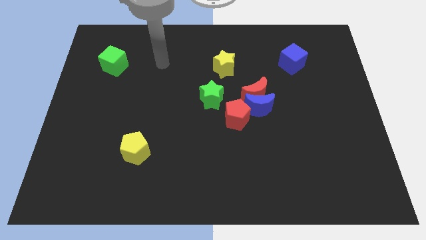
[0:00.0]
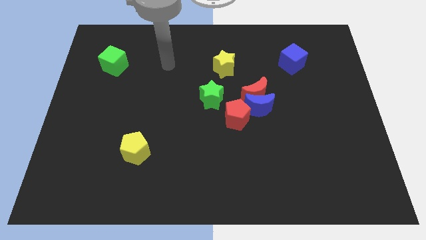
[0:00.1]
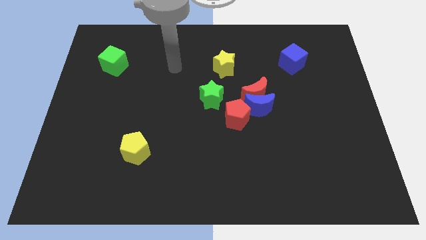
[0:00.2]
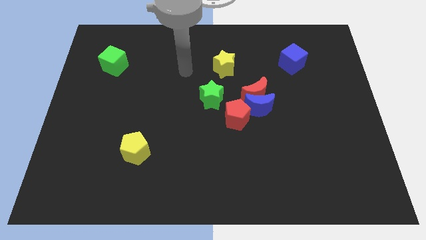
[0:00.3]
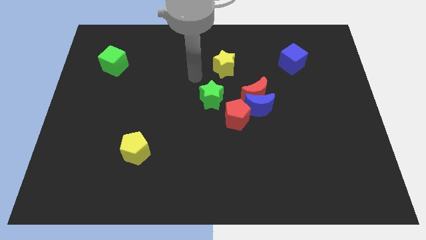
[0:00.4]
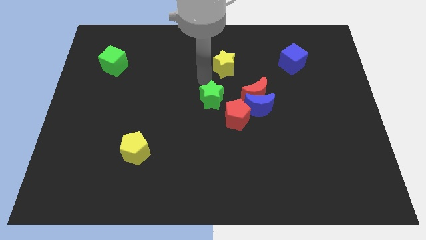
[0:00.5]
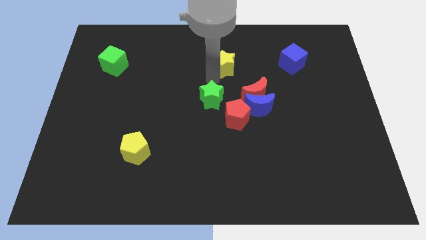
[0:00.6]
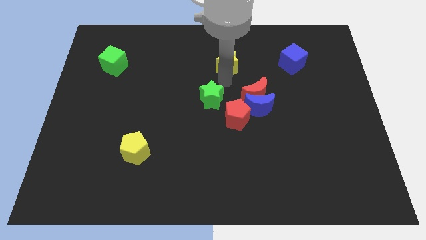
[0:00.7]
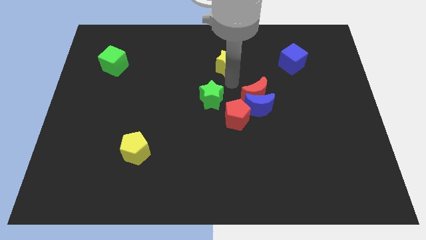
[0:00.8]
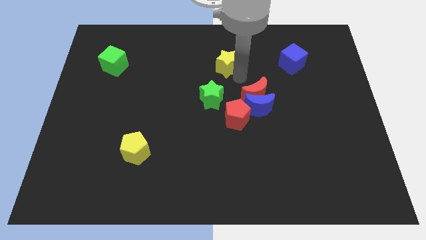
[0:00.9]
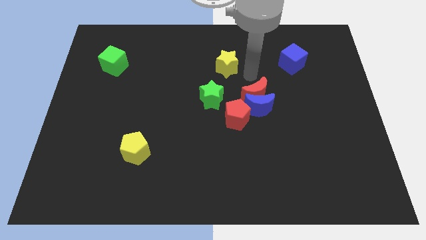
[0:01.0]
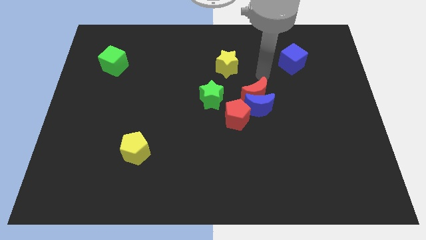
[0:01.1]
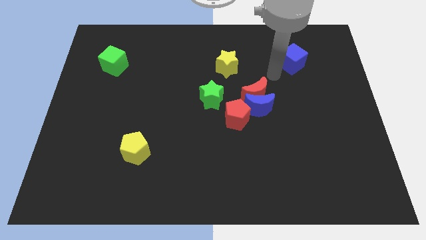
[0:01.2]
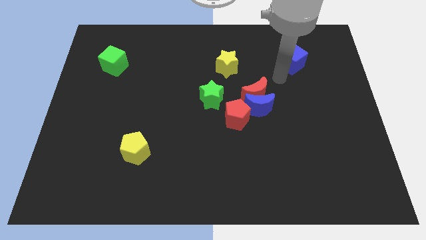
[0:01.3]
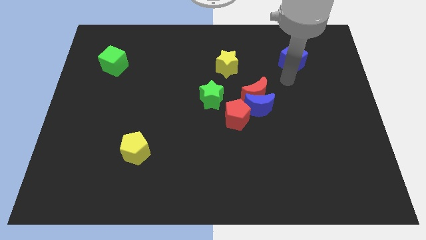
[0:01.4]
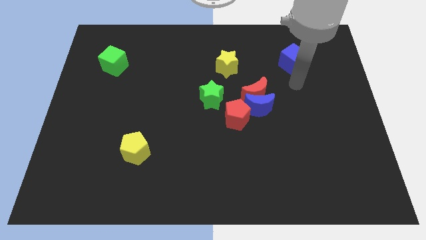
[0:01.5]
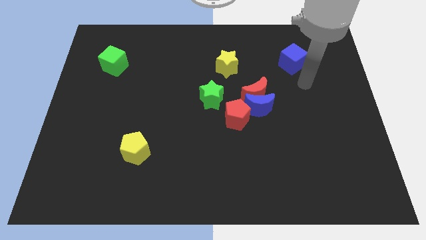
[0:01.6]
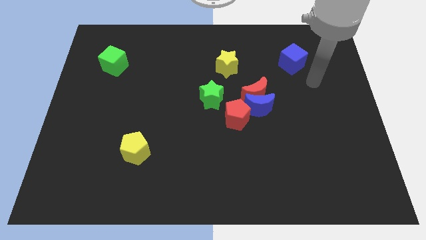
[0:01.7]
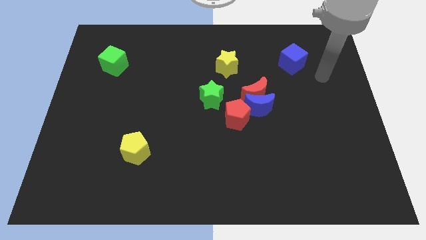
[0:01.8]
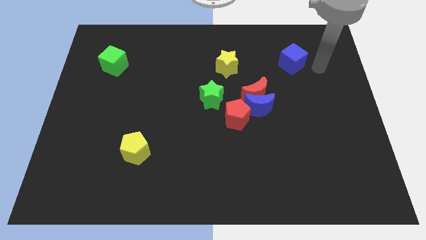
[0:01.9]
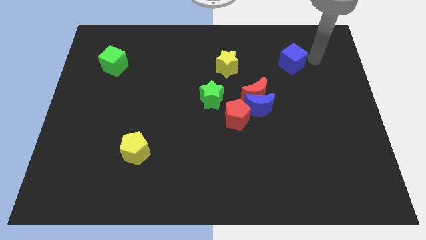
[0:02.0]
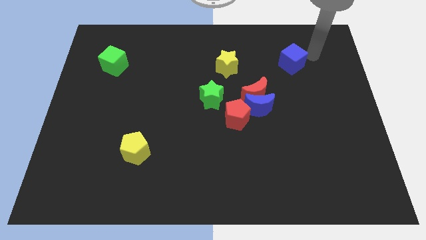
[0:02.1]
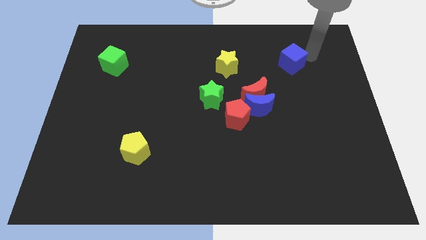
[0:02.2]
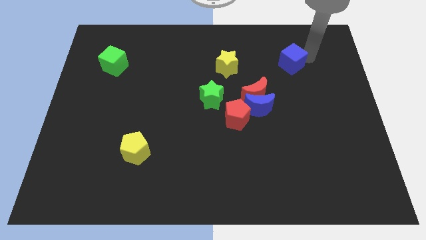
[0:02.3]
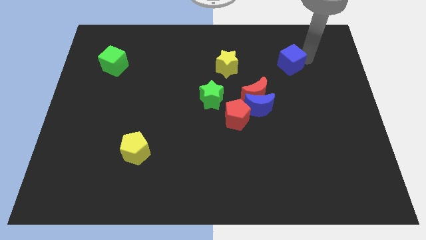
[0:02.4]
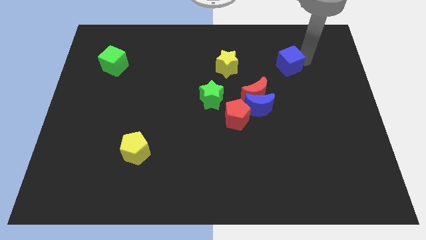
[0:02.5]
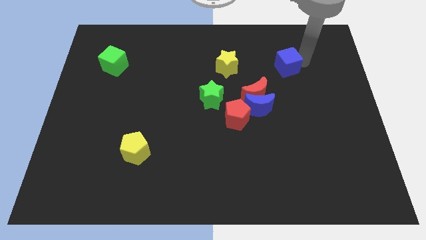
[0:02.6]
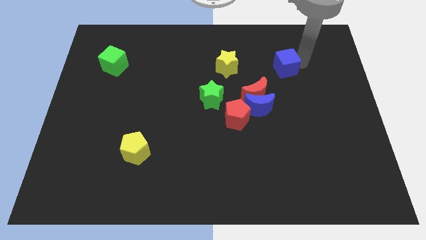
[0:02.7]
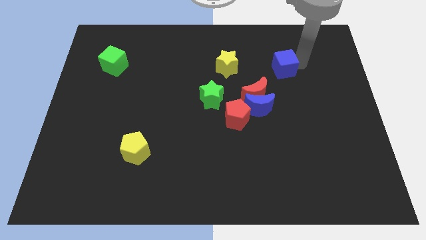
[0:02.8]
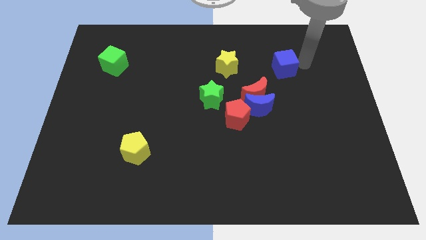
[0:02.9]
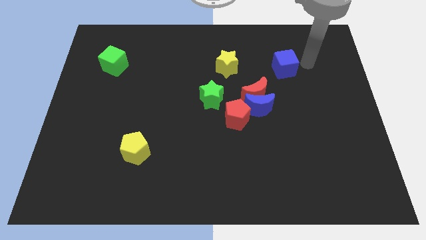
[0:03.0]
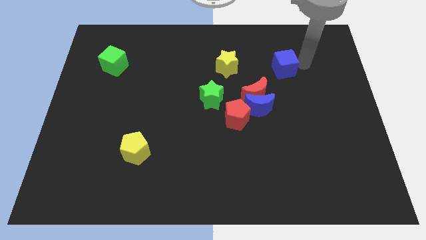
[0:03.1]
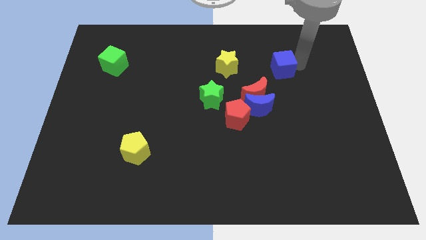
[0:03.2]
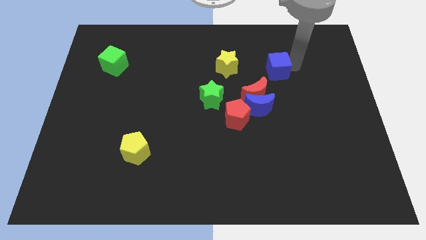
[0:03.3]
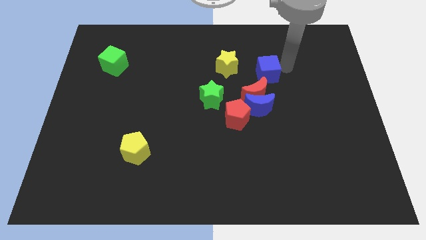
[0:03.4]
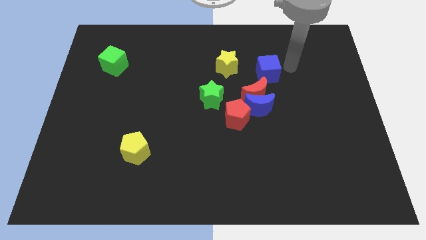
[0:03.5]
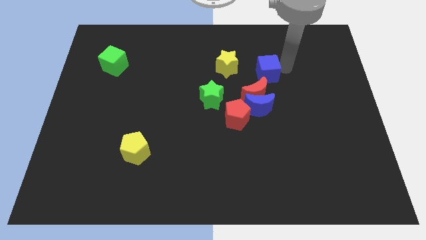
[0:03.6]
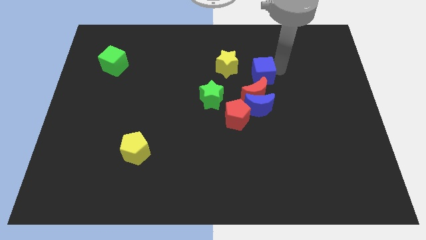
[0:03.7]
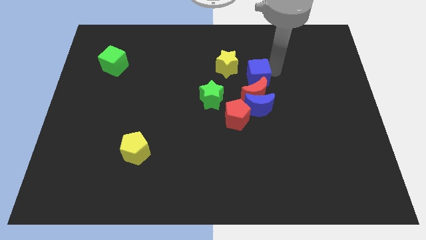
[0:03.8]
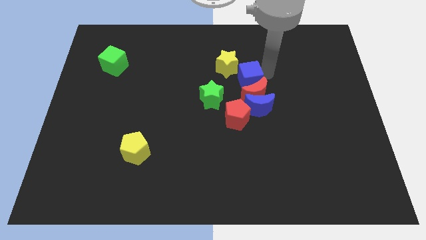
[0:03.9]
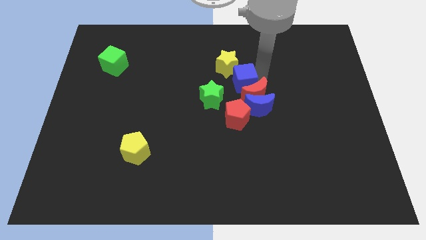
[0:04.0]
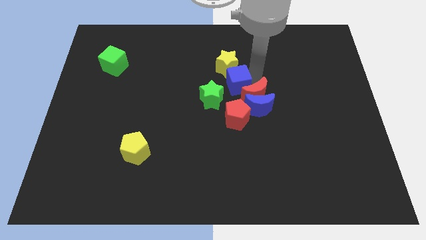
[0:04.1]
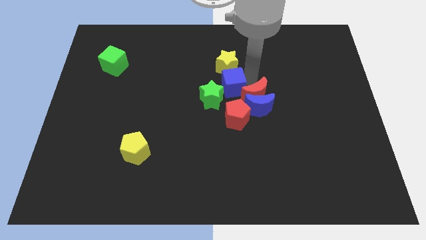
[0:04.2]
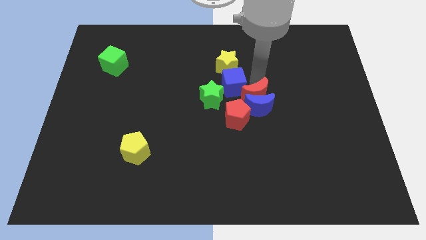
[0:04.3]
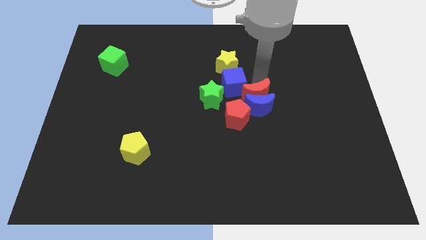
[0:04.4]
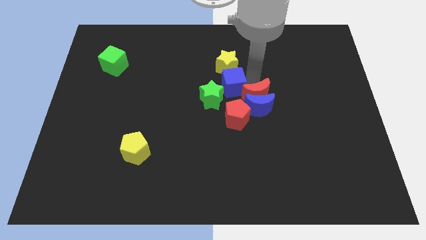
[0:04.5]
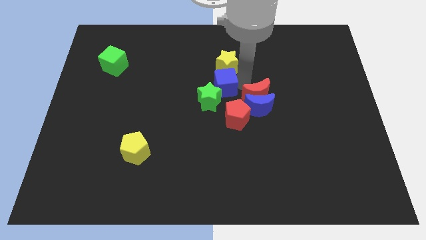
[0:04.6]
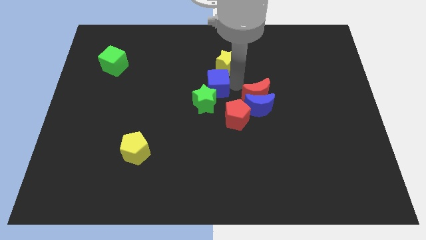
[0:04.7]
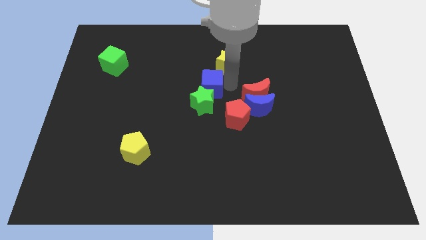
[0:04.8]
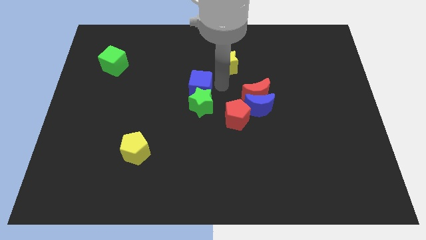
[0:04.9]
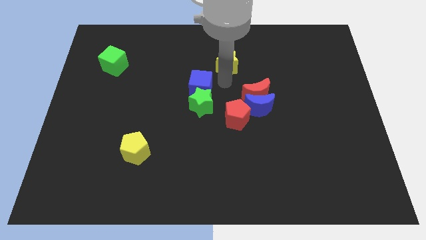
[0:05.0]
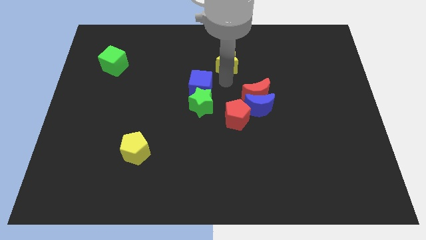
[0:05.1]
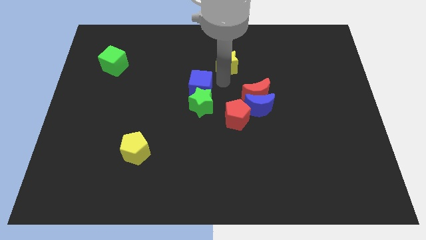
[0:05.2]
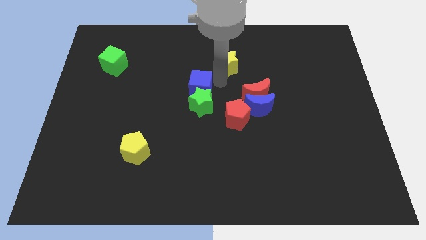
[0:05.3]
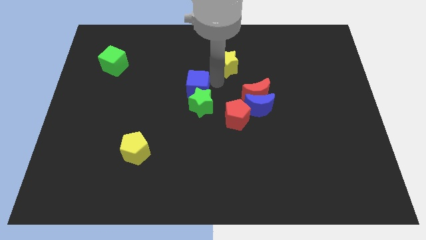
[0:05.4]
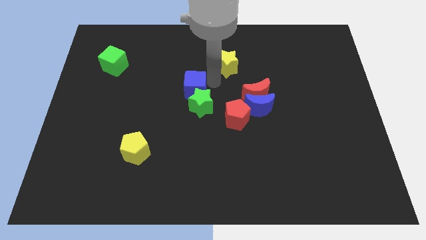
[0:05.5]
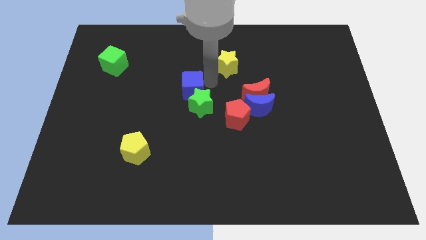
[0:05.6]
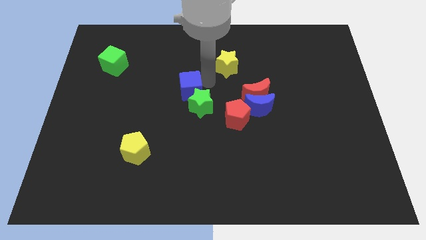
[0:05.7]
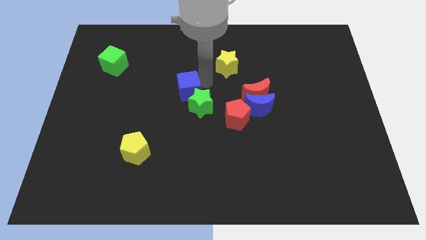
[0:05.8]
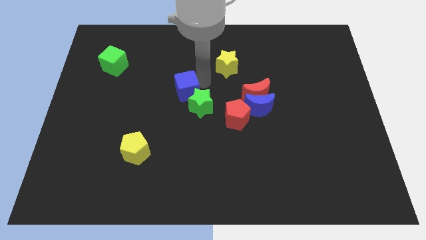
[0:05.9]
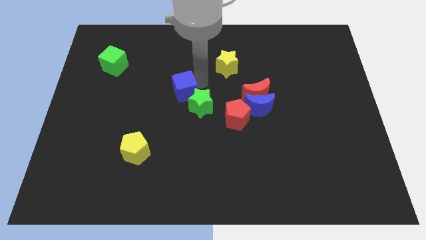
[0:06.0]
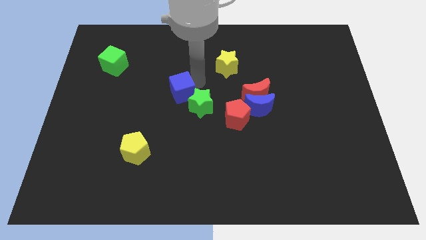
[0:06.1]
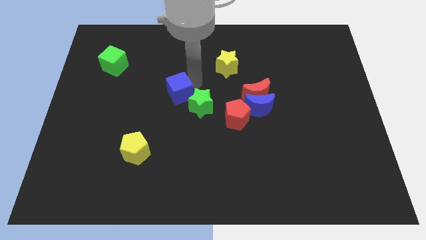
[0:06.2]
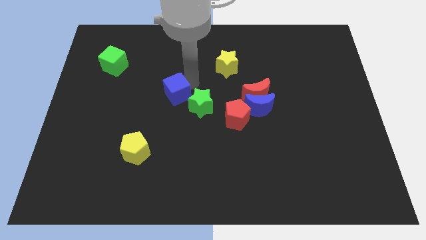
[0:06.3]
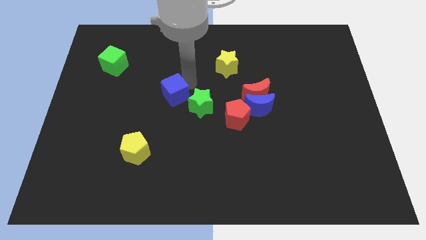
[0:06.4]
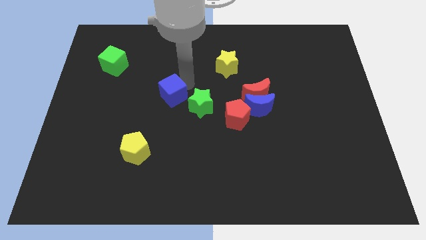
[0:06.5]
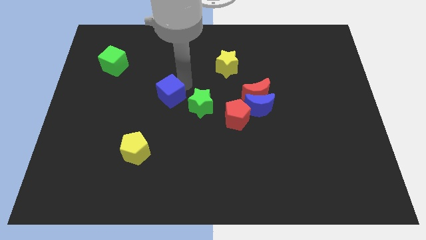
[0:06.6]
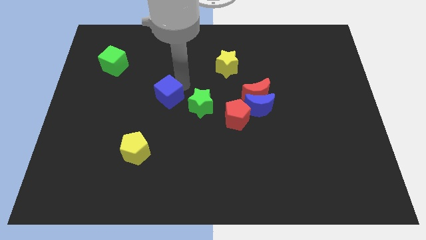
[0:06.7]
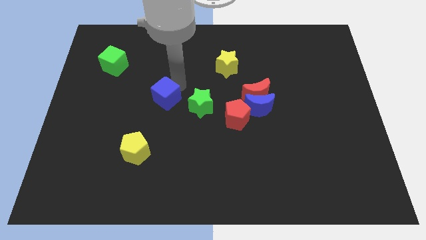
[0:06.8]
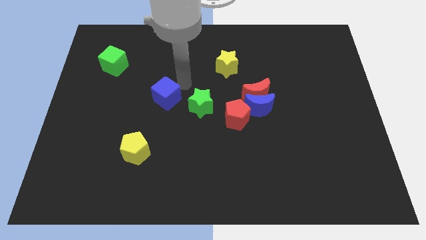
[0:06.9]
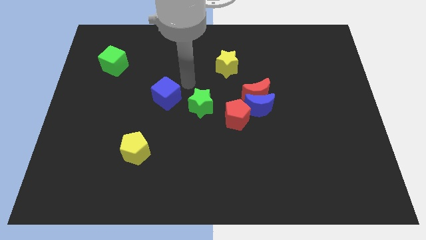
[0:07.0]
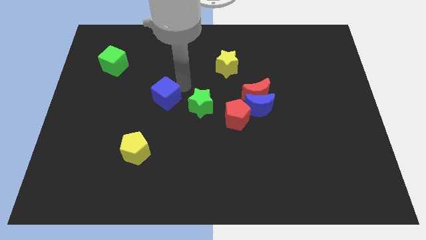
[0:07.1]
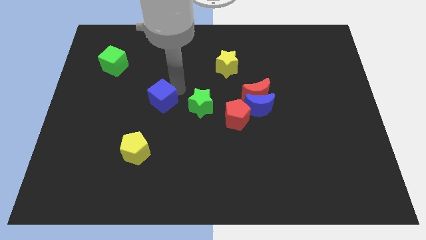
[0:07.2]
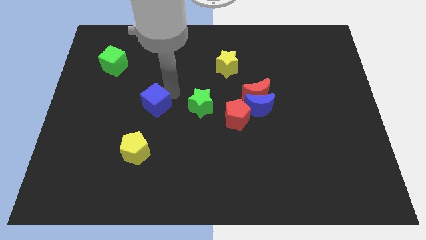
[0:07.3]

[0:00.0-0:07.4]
put the blue cube to the top of the yellow pentagon
